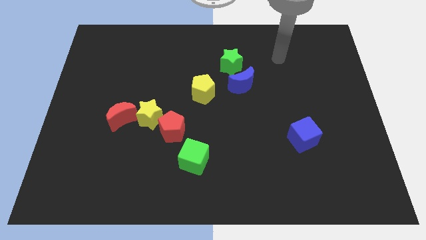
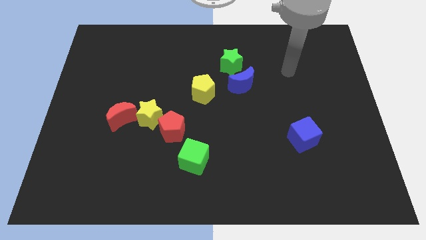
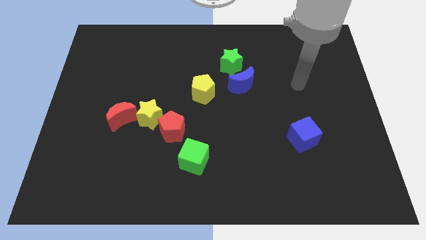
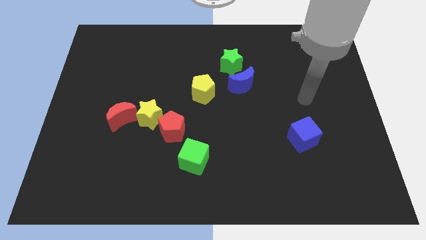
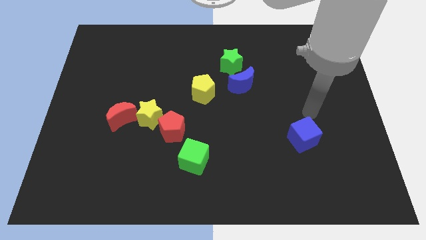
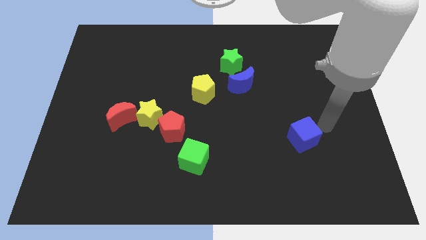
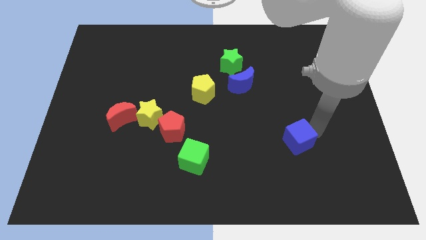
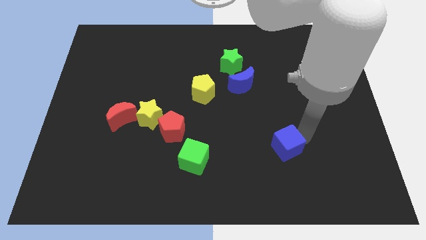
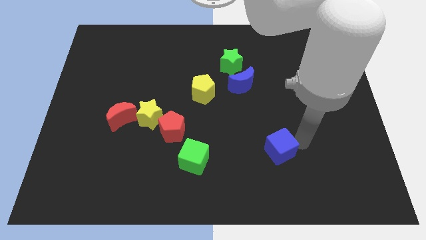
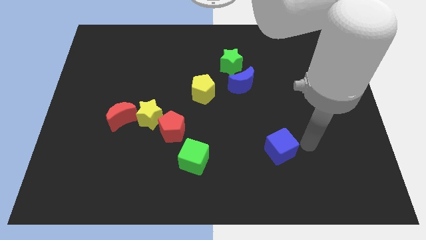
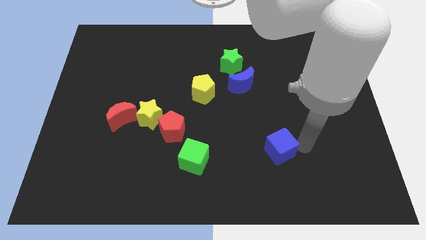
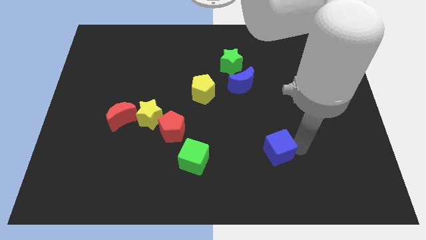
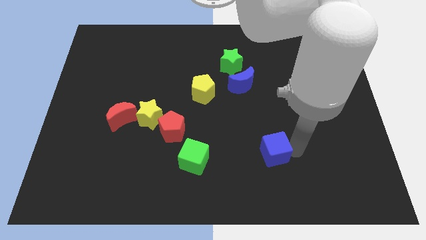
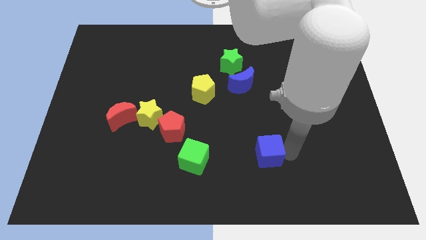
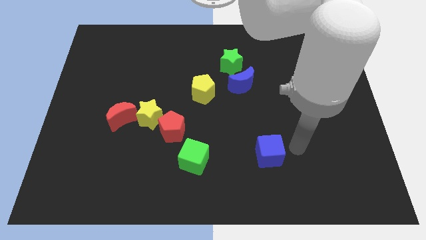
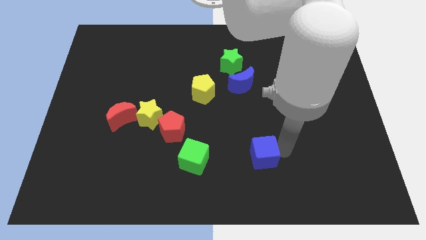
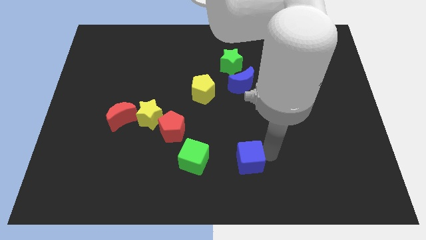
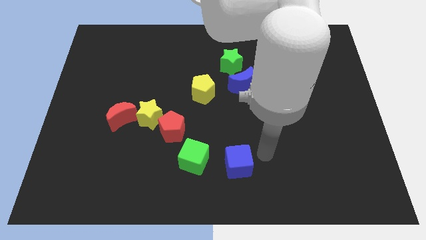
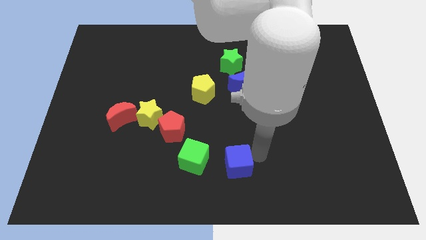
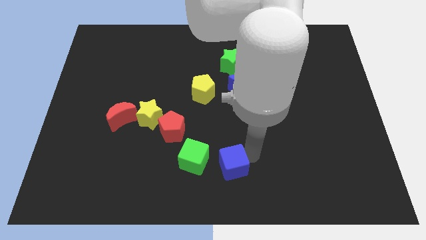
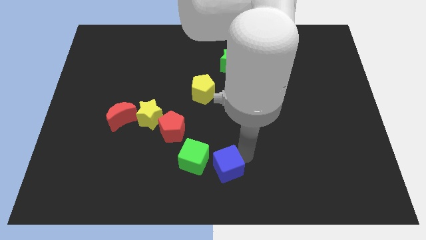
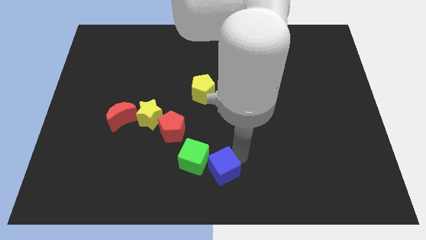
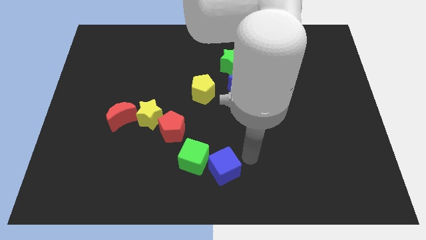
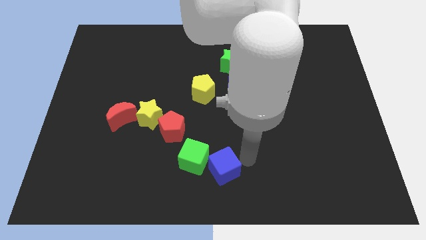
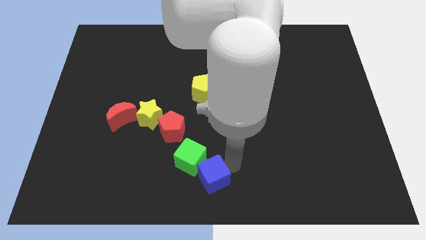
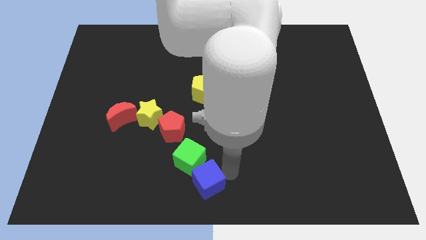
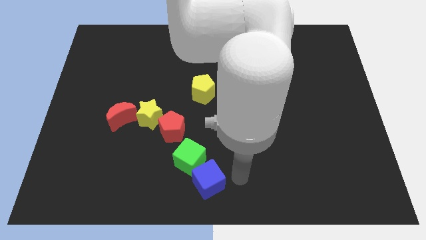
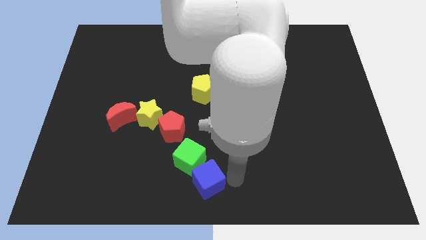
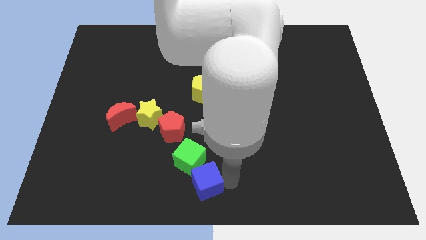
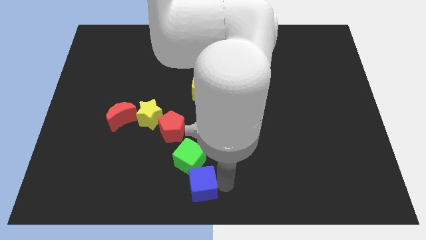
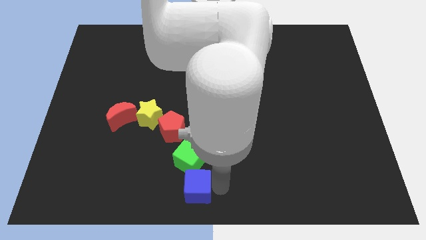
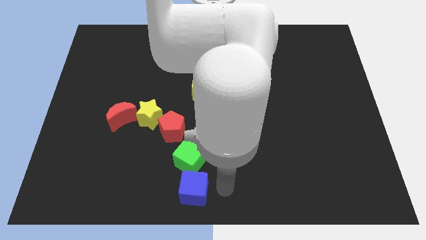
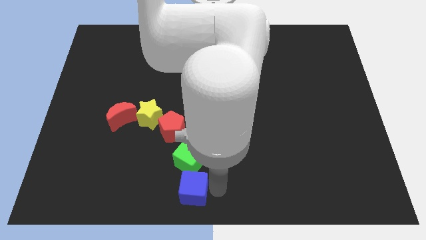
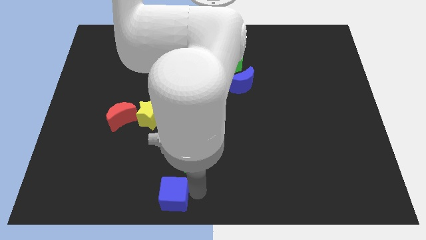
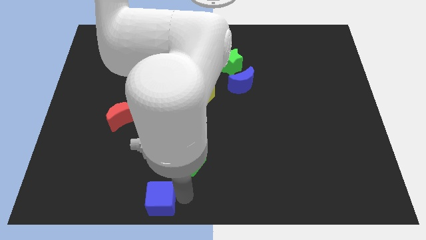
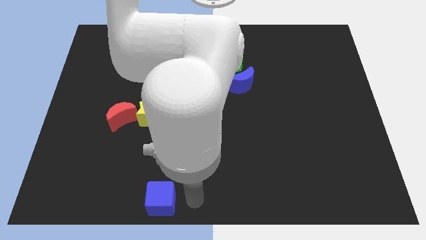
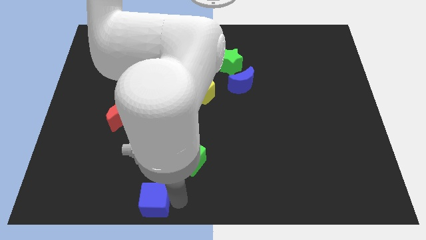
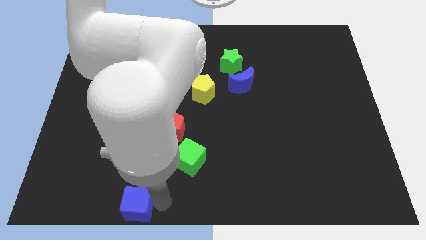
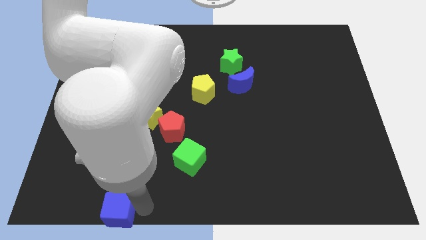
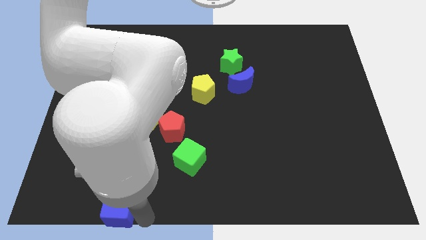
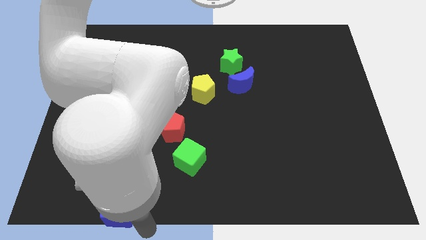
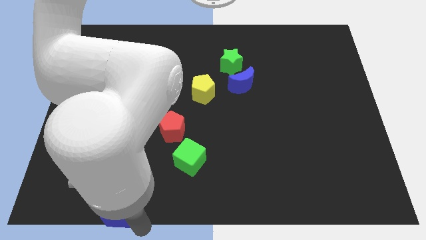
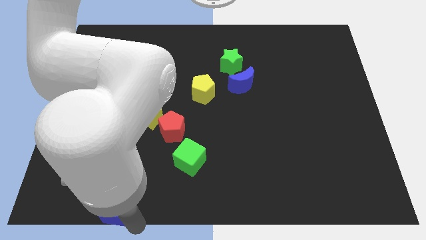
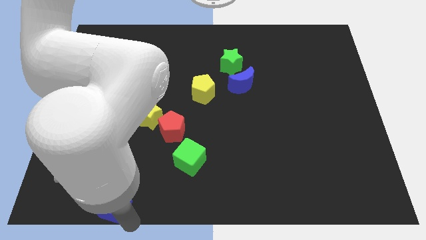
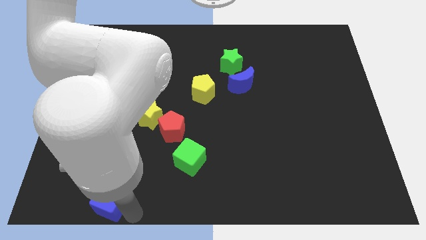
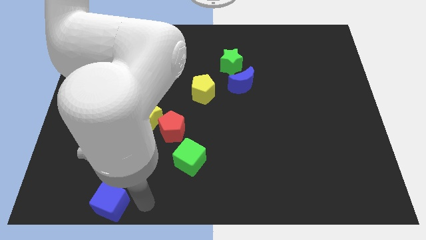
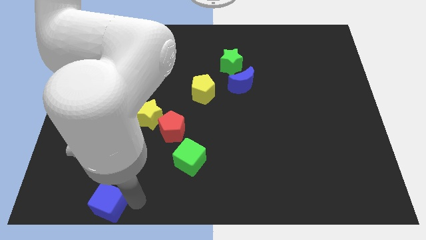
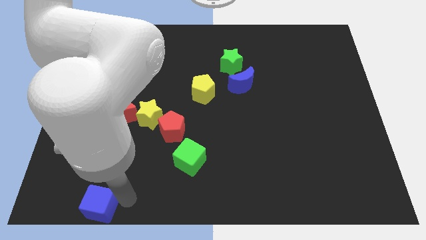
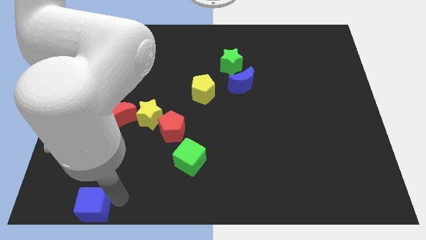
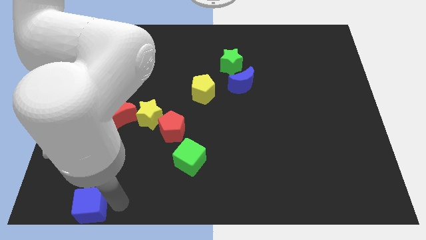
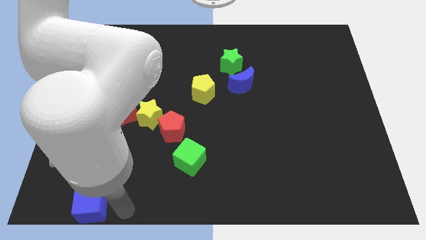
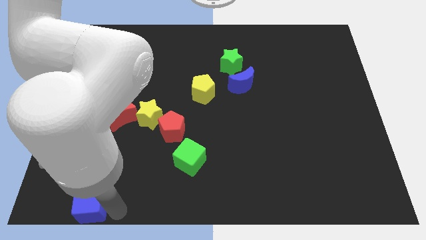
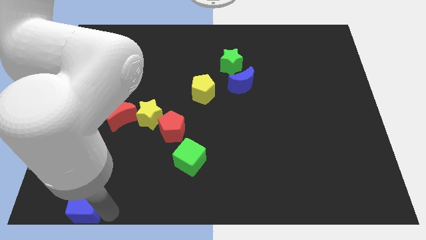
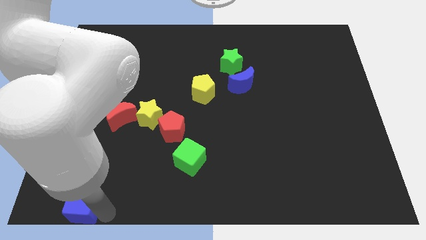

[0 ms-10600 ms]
put the blue cube to the lower left corner

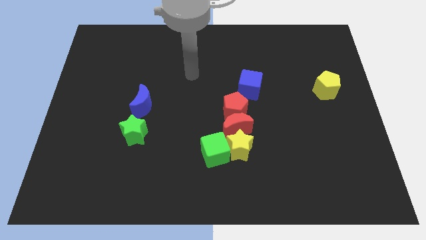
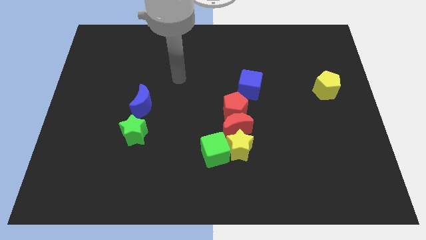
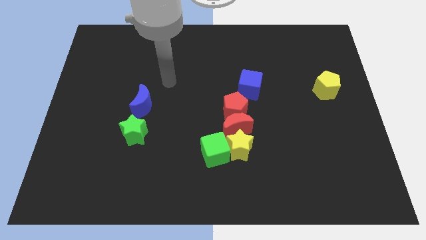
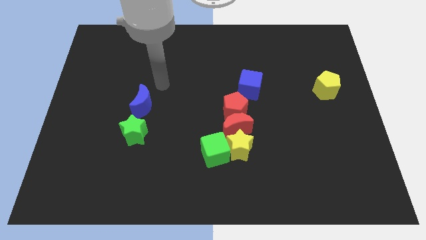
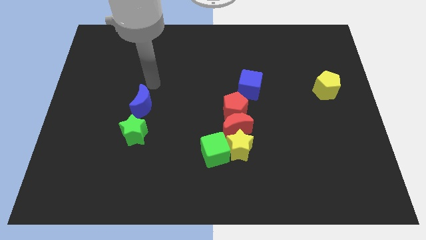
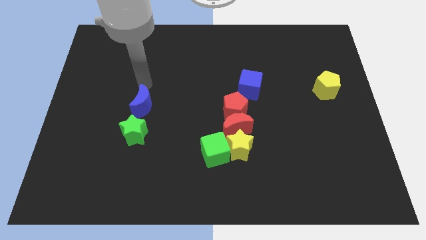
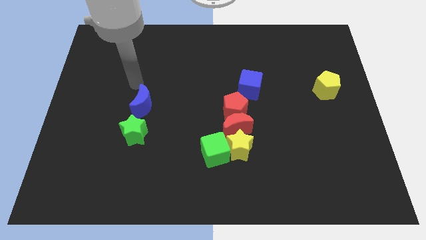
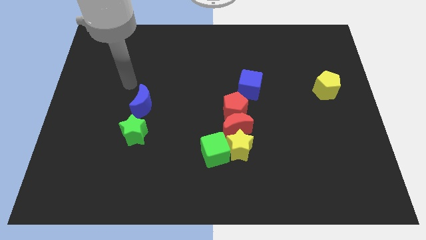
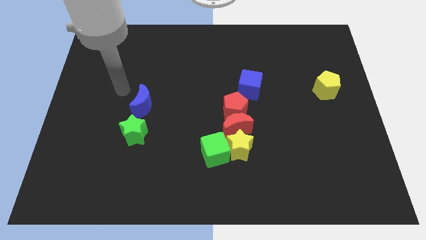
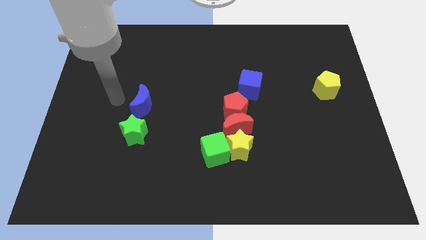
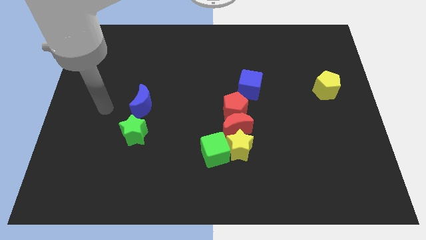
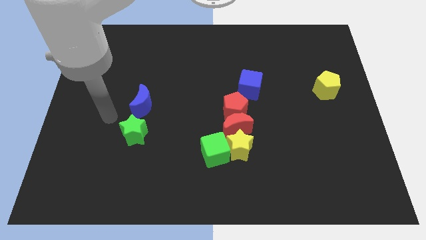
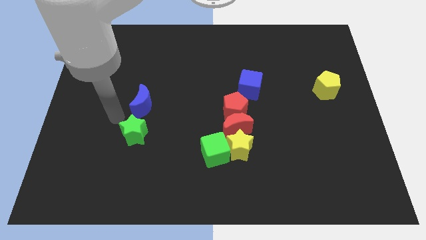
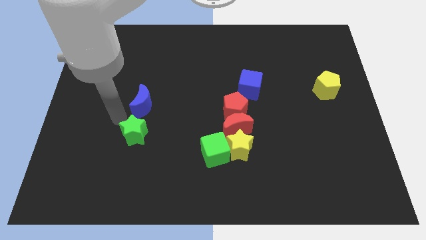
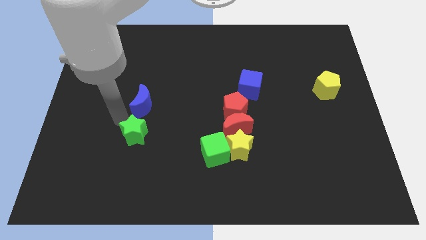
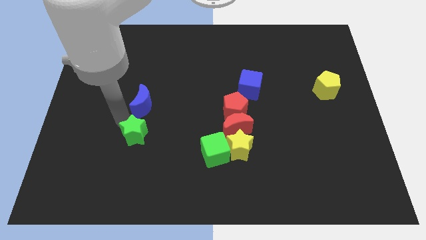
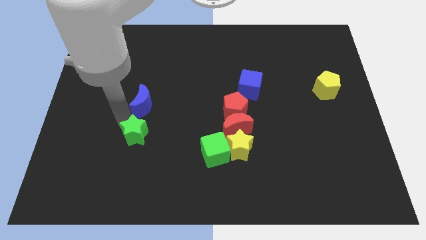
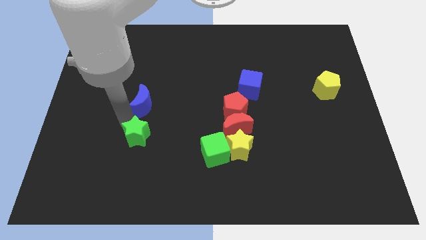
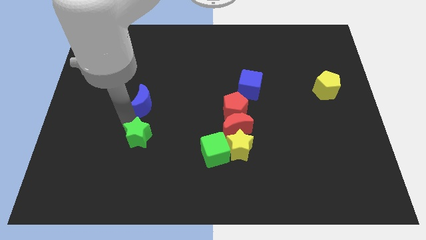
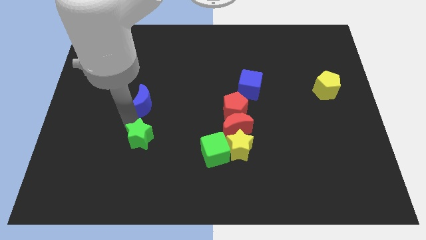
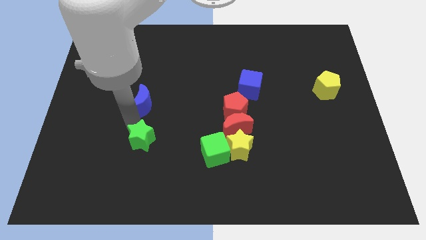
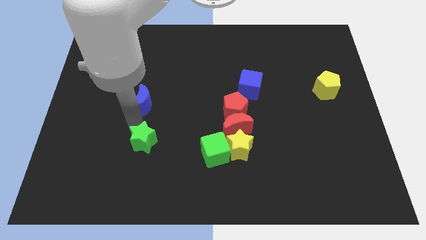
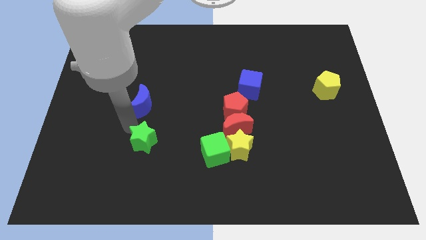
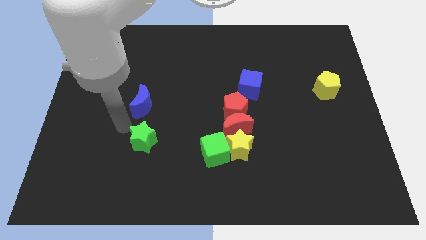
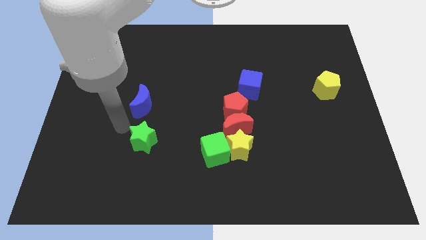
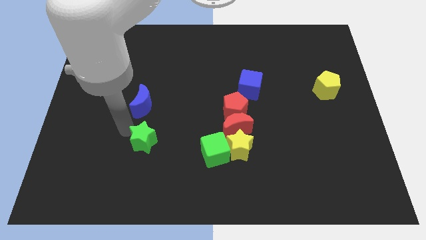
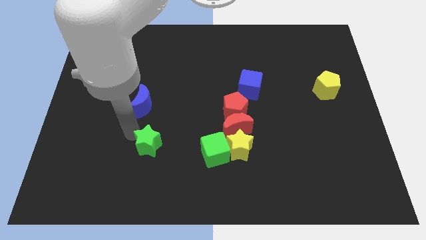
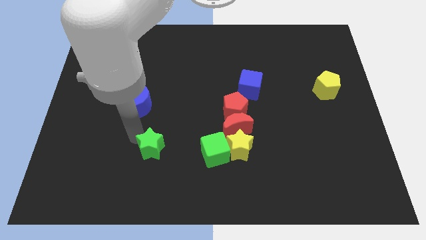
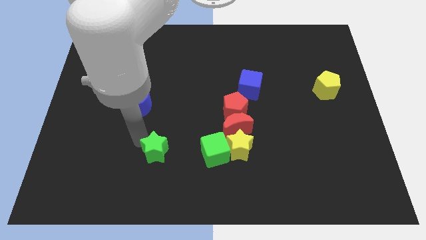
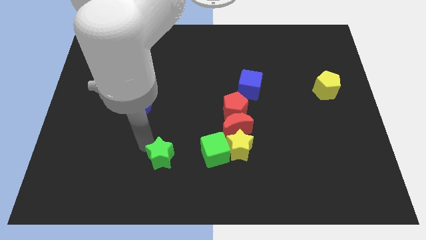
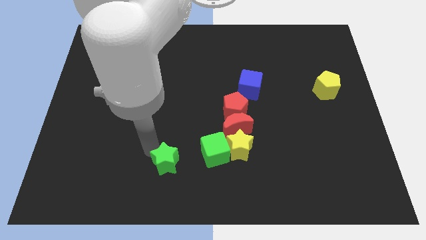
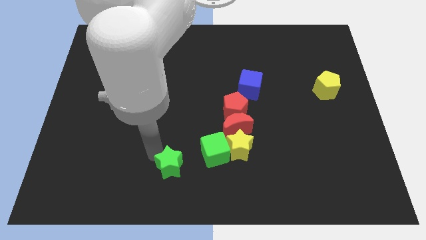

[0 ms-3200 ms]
push the green star to the bottom
